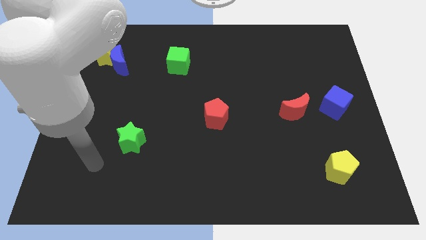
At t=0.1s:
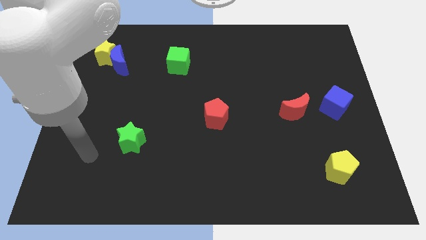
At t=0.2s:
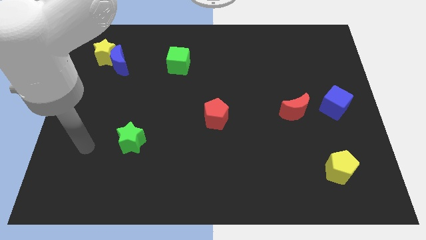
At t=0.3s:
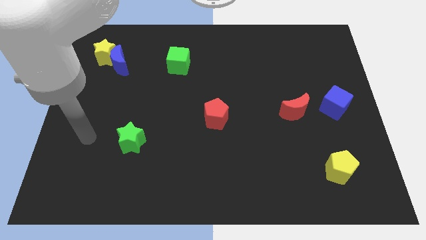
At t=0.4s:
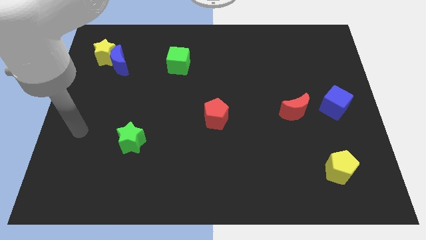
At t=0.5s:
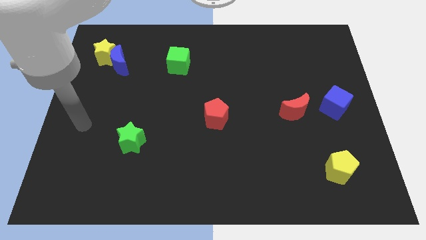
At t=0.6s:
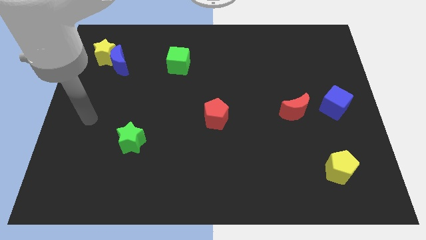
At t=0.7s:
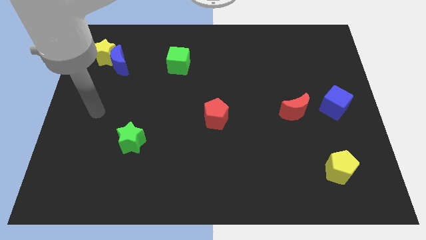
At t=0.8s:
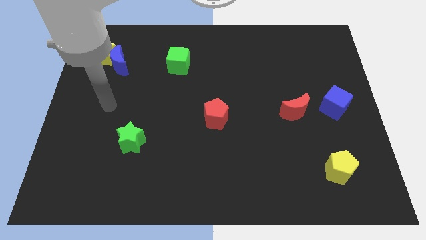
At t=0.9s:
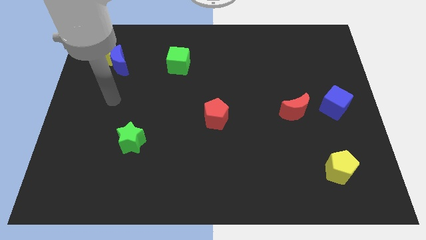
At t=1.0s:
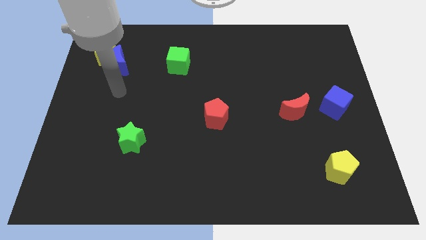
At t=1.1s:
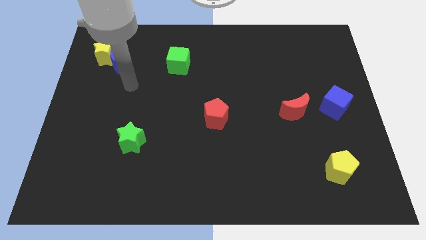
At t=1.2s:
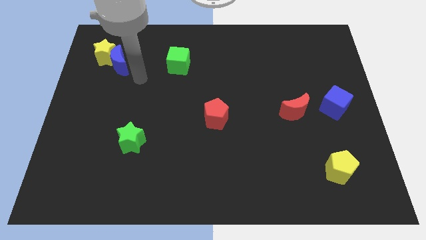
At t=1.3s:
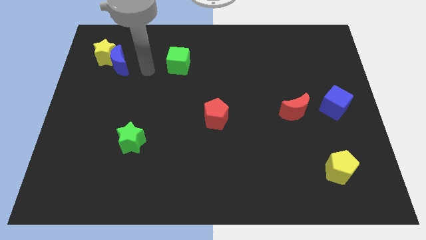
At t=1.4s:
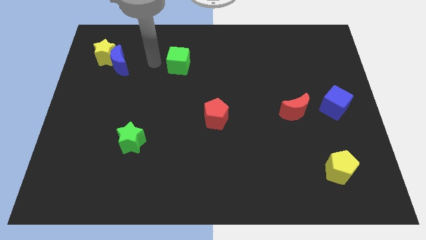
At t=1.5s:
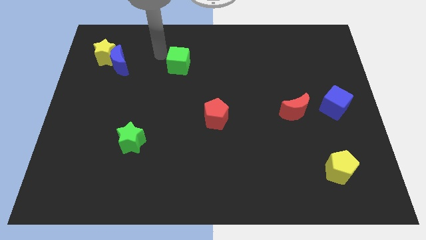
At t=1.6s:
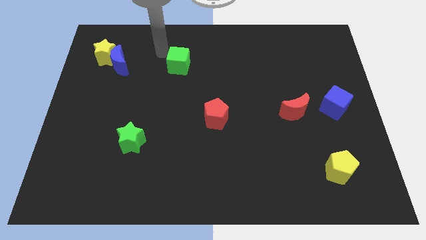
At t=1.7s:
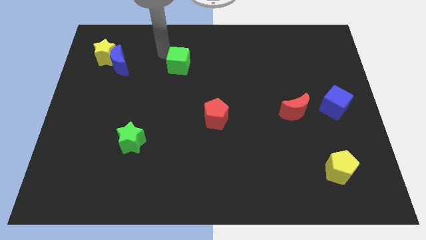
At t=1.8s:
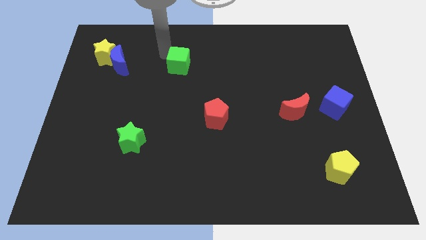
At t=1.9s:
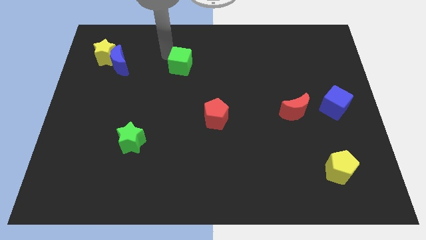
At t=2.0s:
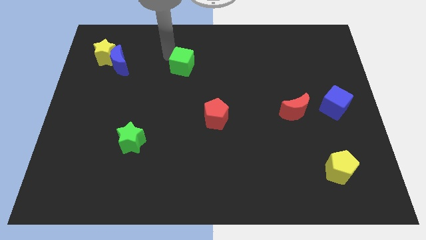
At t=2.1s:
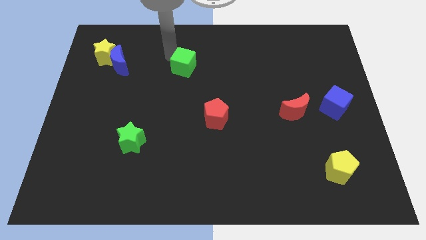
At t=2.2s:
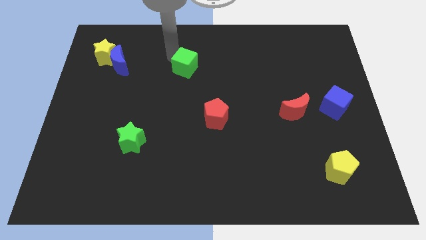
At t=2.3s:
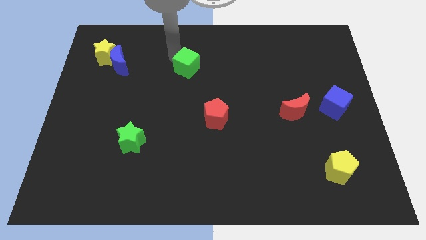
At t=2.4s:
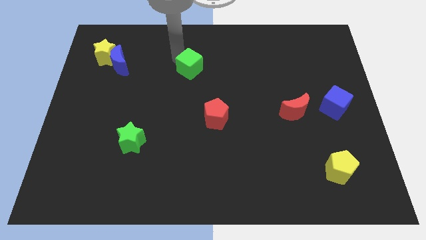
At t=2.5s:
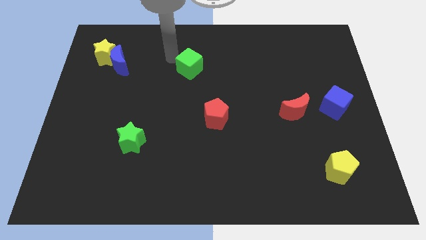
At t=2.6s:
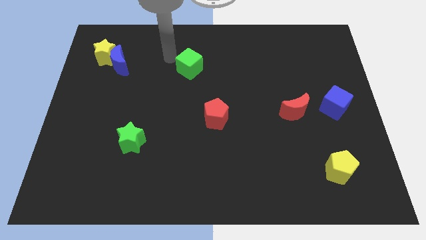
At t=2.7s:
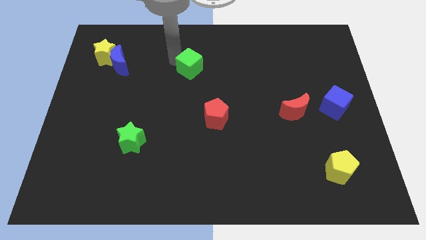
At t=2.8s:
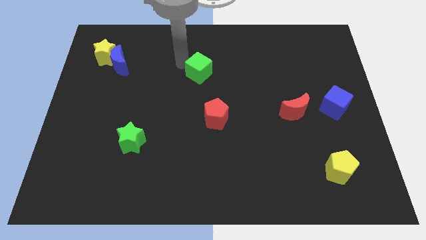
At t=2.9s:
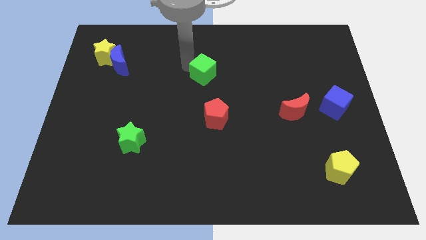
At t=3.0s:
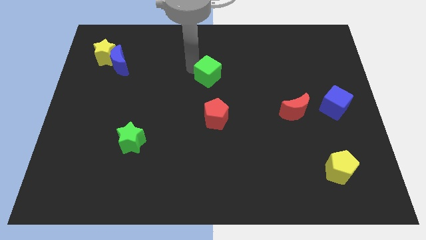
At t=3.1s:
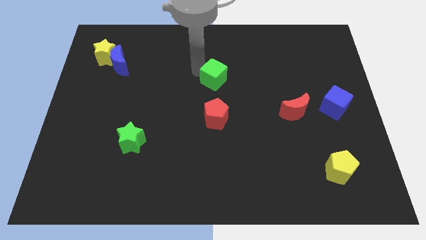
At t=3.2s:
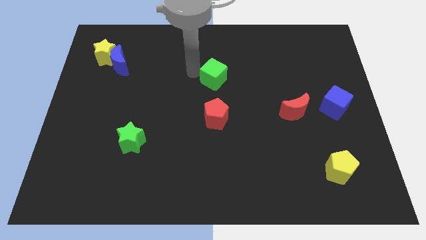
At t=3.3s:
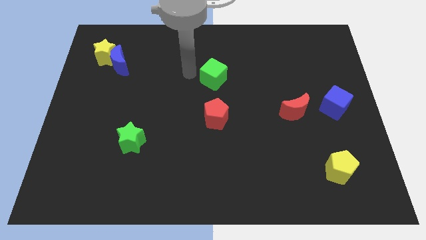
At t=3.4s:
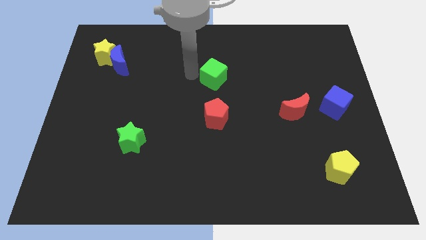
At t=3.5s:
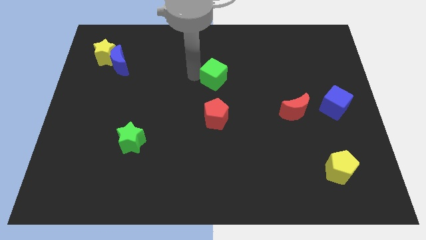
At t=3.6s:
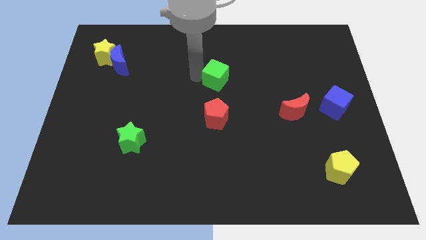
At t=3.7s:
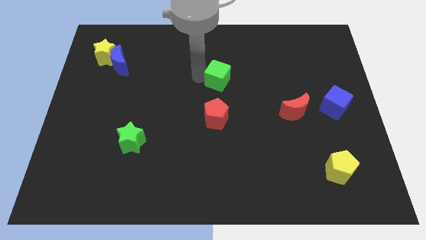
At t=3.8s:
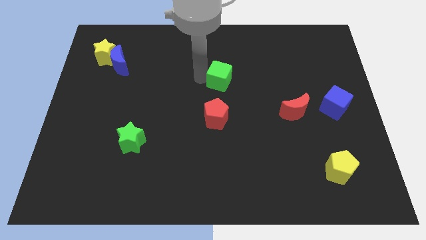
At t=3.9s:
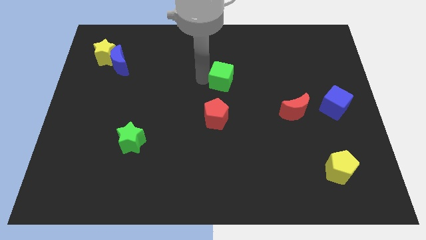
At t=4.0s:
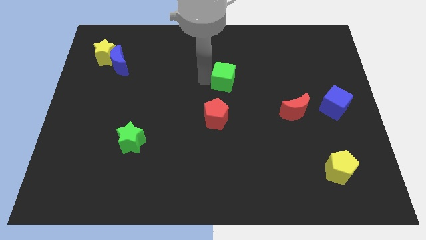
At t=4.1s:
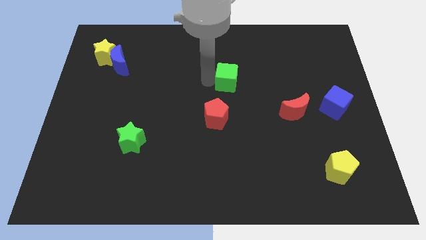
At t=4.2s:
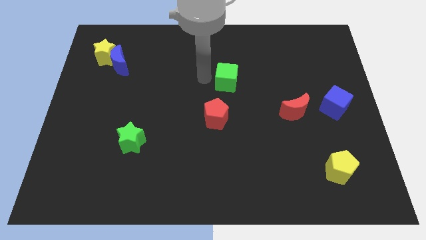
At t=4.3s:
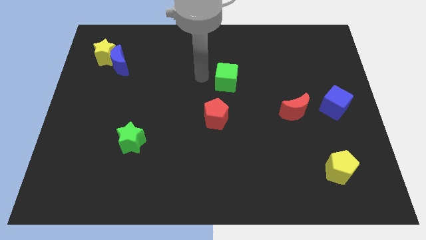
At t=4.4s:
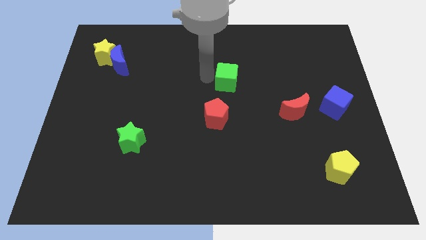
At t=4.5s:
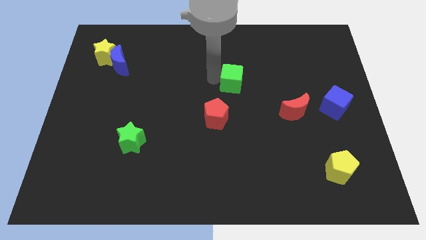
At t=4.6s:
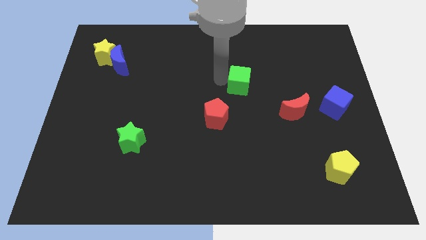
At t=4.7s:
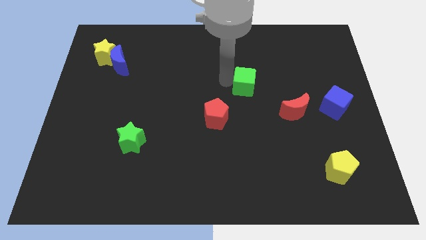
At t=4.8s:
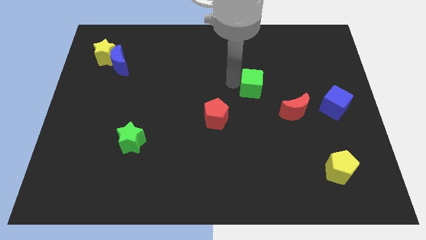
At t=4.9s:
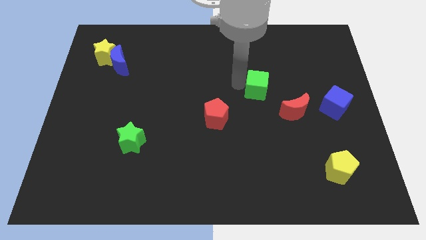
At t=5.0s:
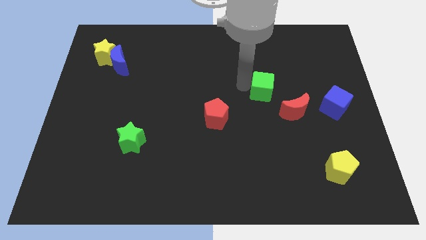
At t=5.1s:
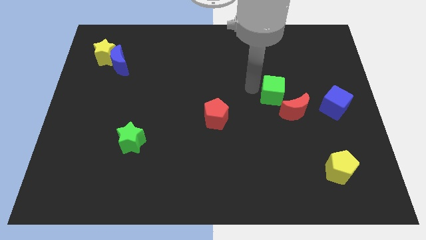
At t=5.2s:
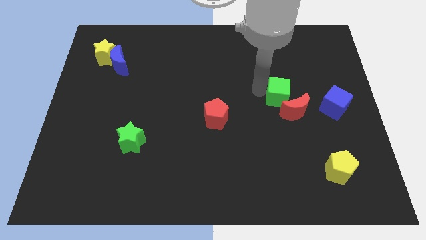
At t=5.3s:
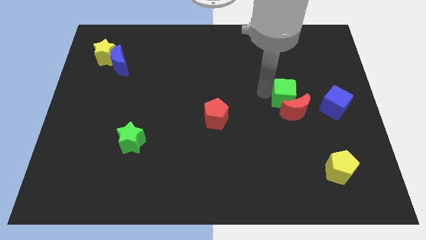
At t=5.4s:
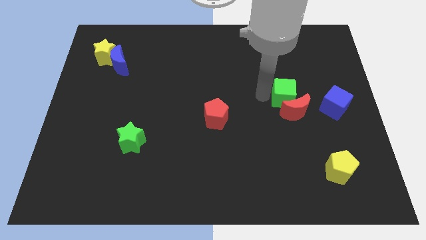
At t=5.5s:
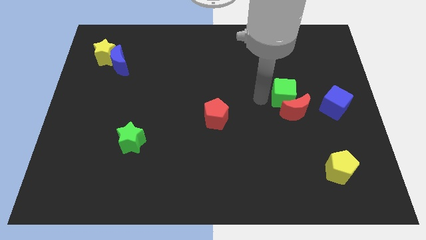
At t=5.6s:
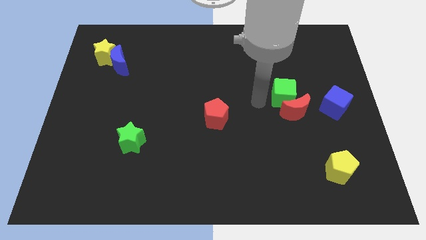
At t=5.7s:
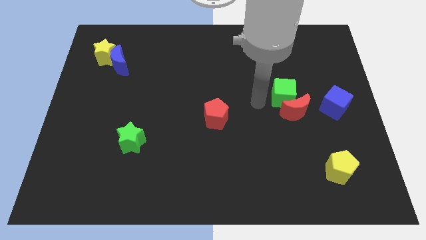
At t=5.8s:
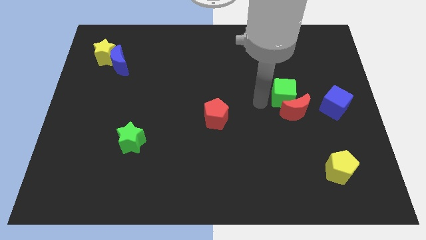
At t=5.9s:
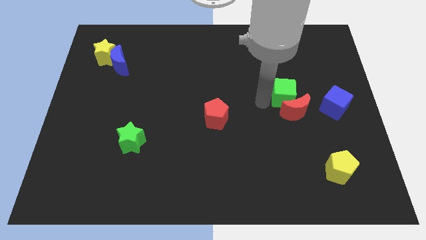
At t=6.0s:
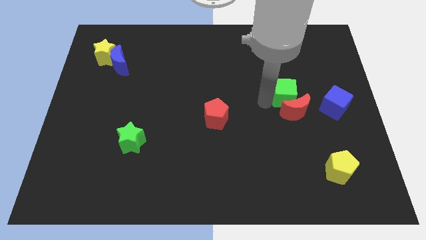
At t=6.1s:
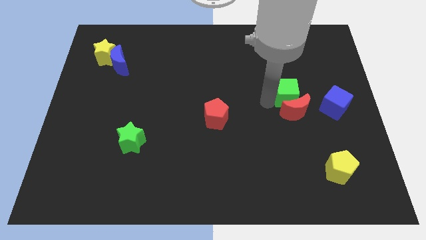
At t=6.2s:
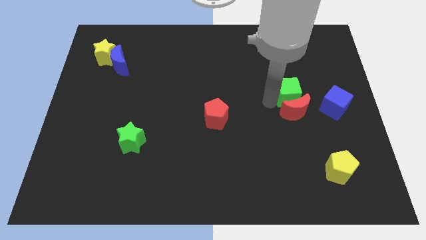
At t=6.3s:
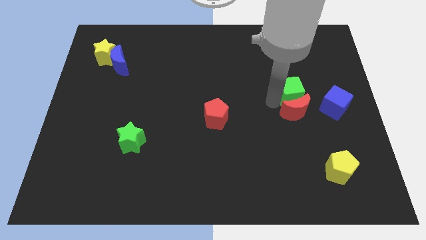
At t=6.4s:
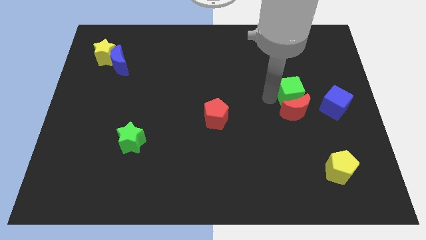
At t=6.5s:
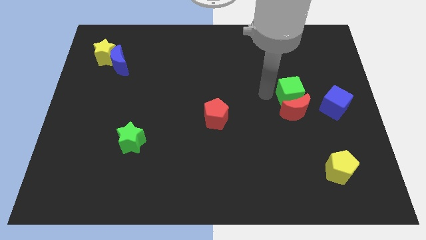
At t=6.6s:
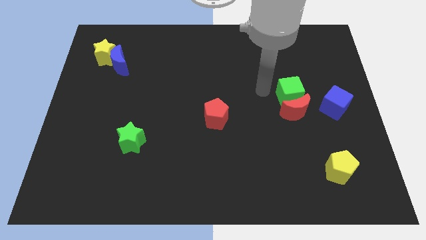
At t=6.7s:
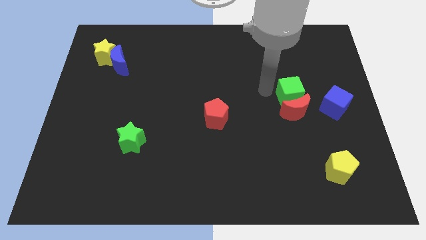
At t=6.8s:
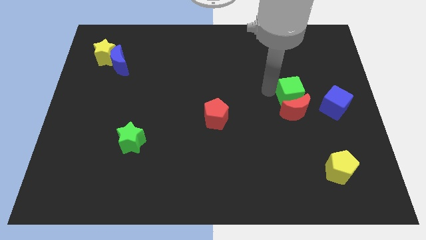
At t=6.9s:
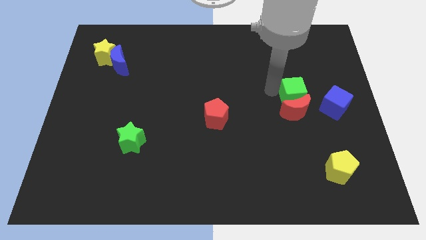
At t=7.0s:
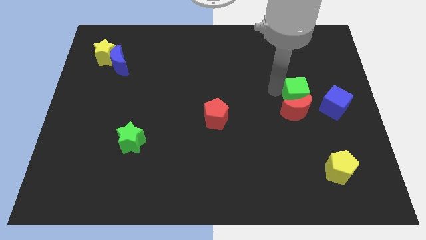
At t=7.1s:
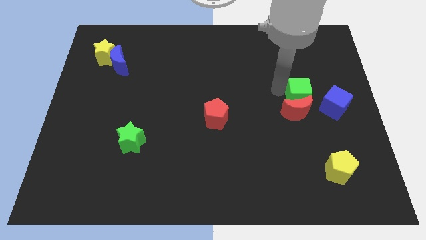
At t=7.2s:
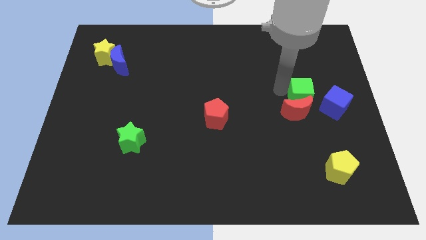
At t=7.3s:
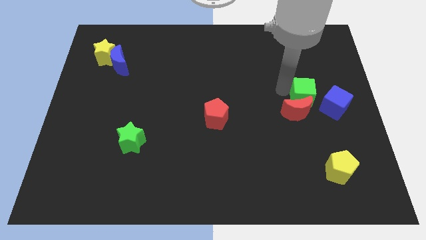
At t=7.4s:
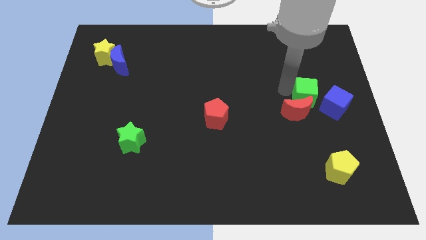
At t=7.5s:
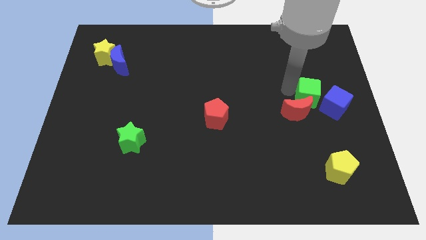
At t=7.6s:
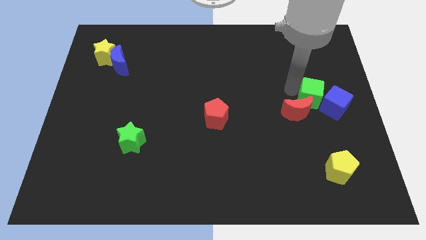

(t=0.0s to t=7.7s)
put the green cube towards the blue cube
